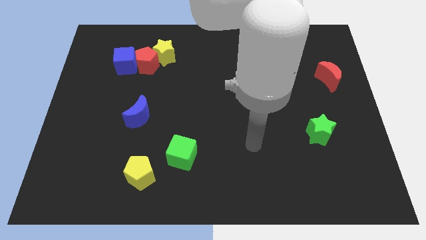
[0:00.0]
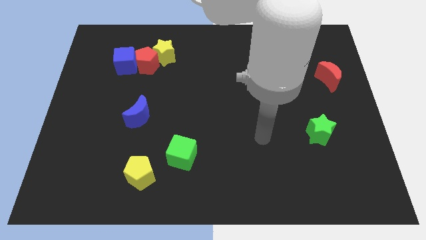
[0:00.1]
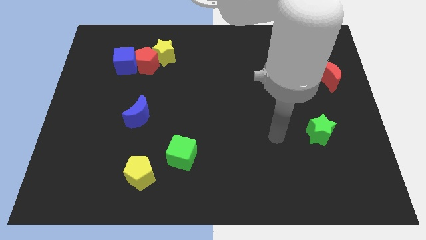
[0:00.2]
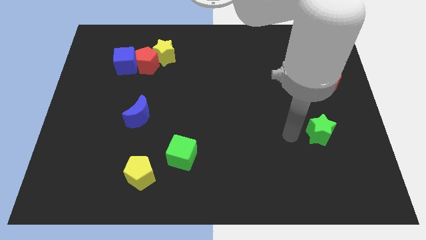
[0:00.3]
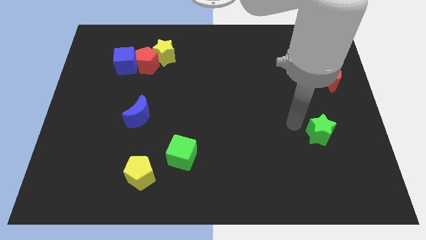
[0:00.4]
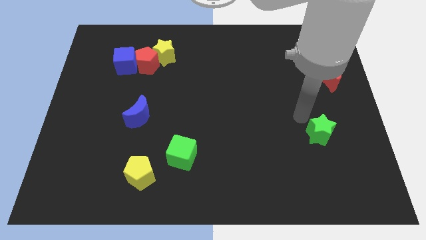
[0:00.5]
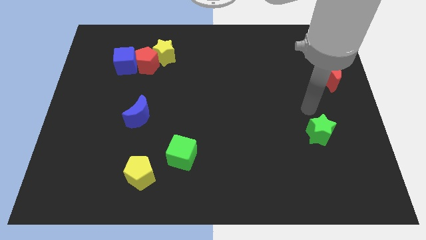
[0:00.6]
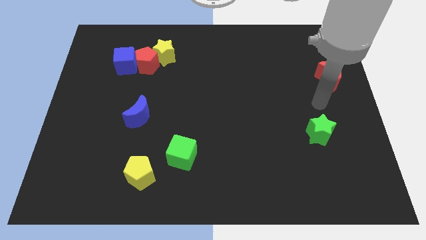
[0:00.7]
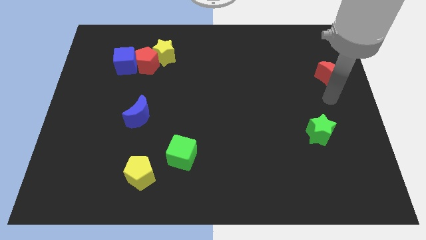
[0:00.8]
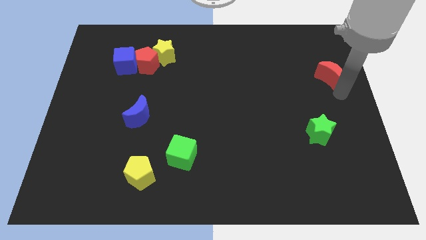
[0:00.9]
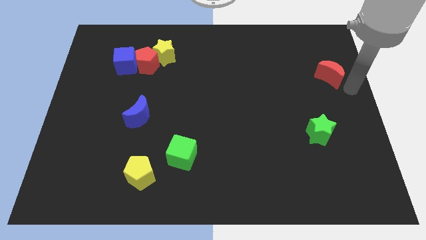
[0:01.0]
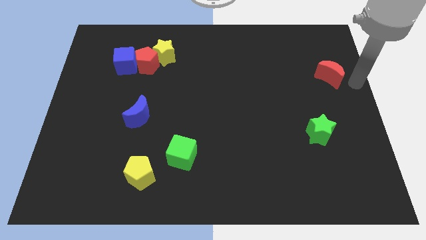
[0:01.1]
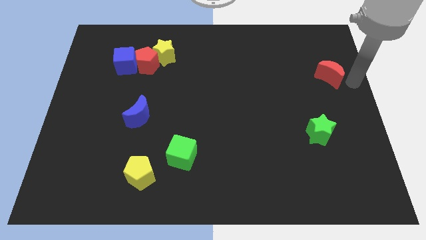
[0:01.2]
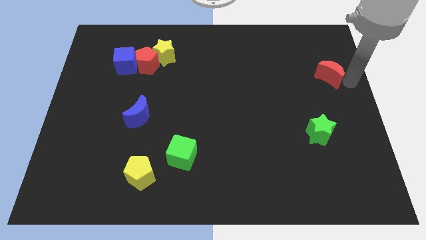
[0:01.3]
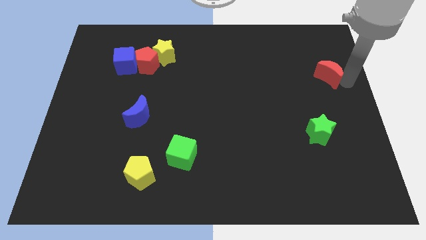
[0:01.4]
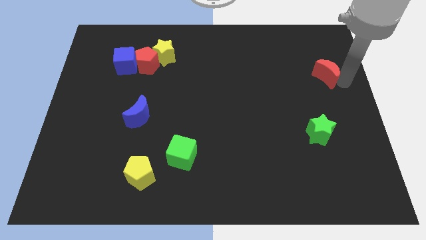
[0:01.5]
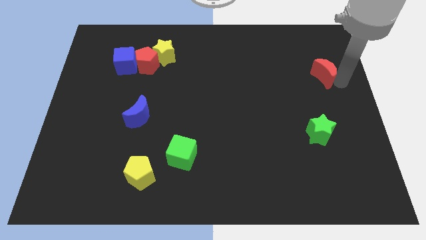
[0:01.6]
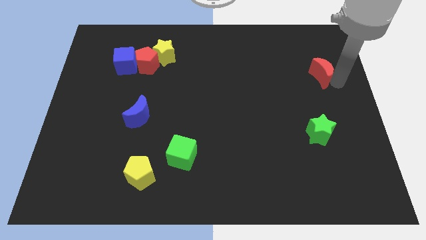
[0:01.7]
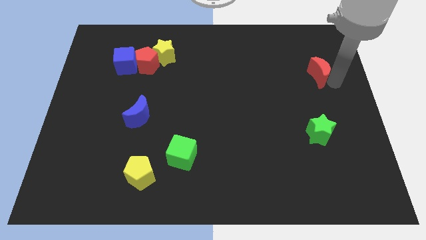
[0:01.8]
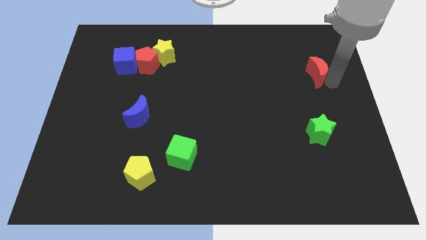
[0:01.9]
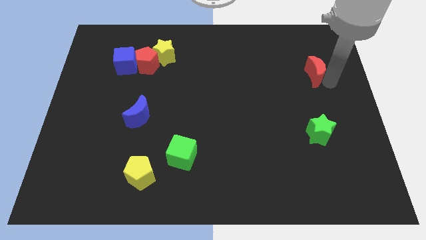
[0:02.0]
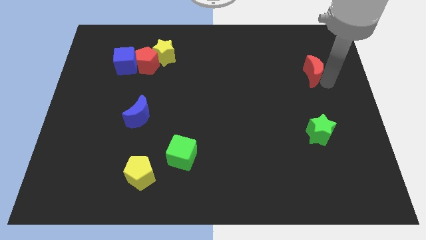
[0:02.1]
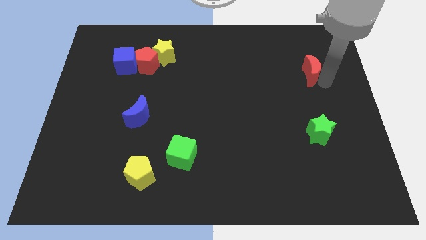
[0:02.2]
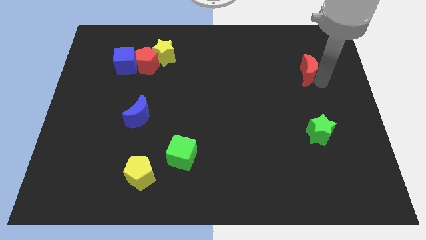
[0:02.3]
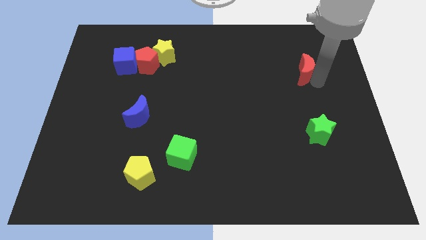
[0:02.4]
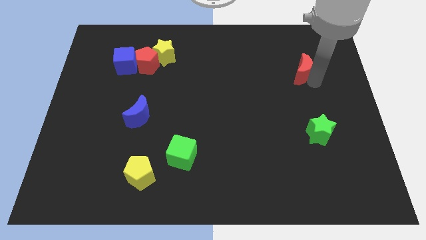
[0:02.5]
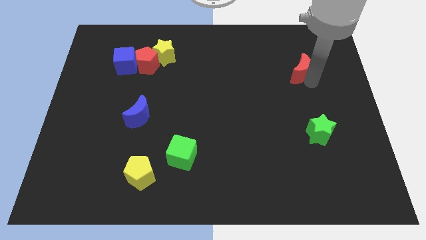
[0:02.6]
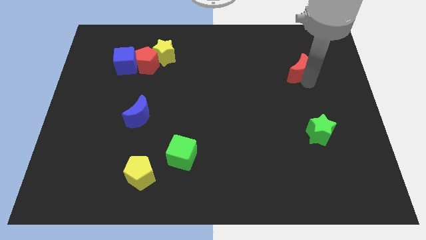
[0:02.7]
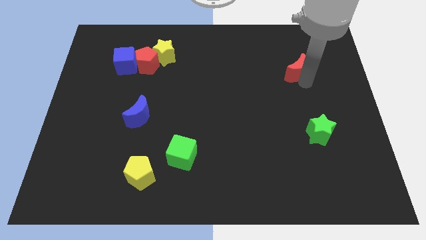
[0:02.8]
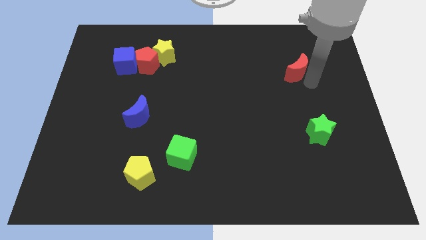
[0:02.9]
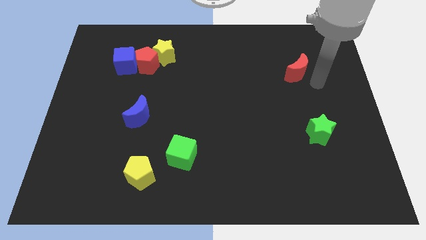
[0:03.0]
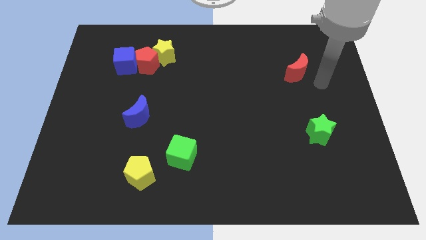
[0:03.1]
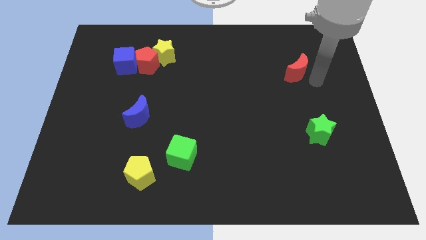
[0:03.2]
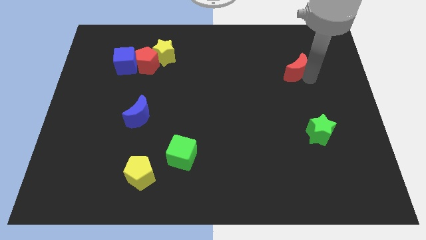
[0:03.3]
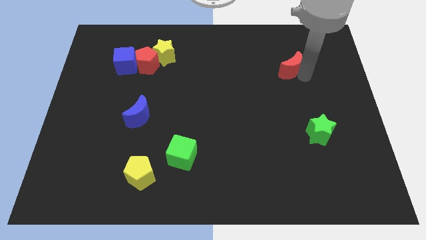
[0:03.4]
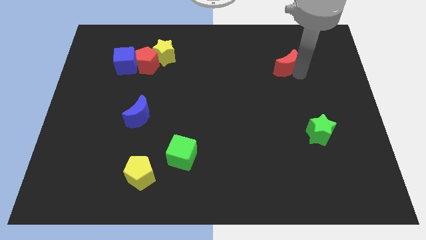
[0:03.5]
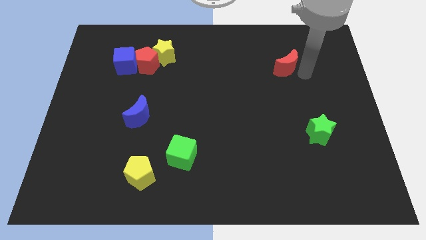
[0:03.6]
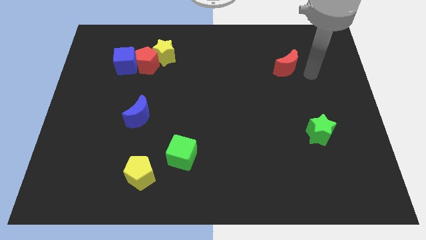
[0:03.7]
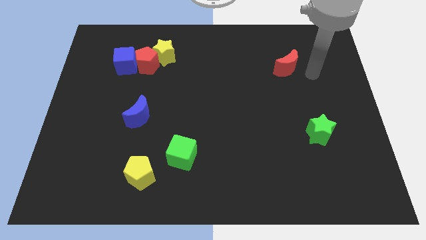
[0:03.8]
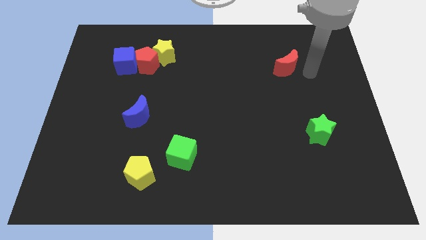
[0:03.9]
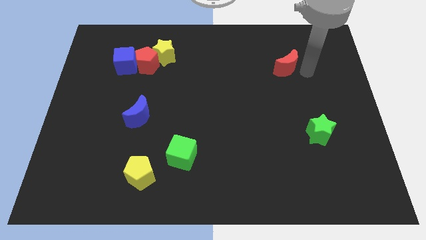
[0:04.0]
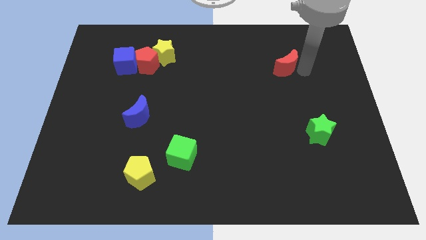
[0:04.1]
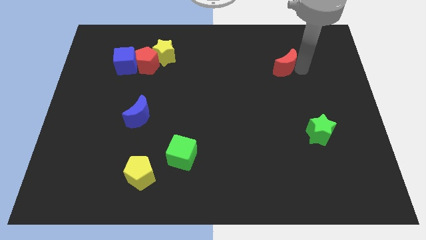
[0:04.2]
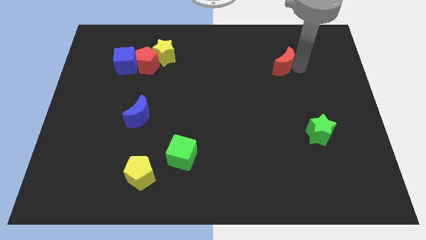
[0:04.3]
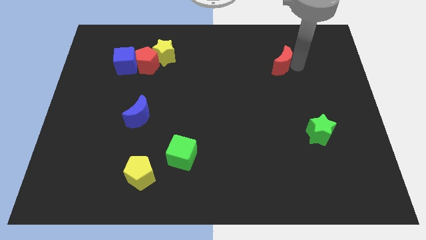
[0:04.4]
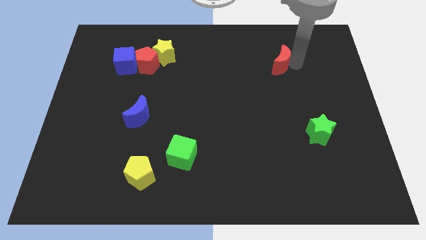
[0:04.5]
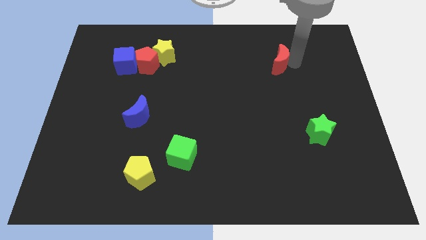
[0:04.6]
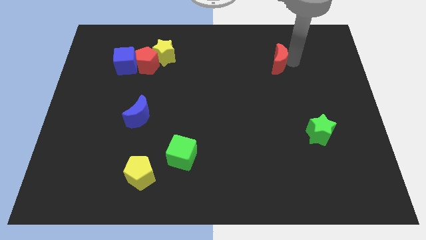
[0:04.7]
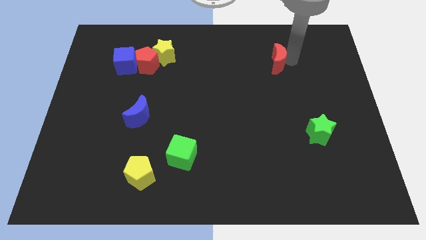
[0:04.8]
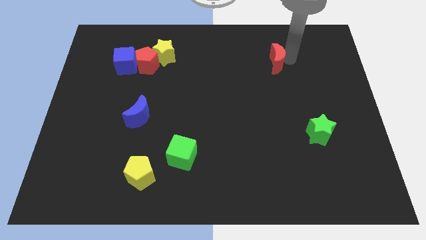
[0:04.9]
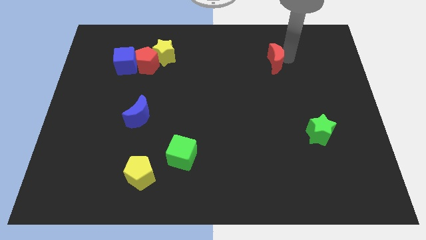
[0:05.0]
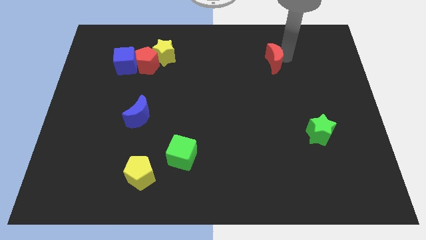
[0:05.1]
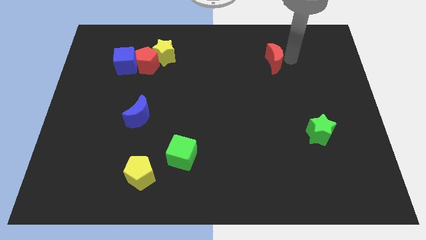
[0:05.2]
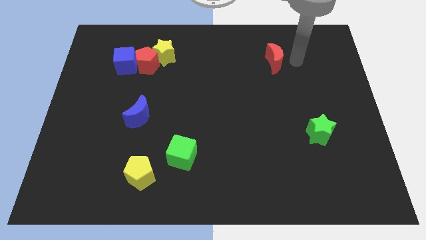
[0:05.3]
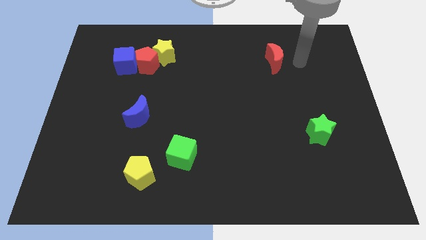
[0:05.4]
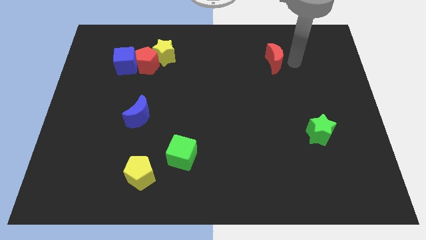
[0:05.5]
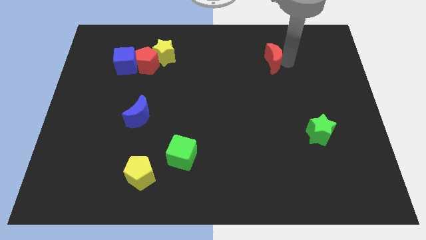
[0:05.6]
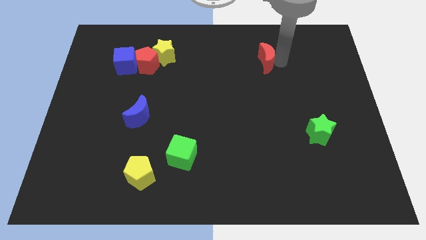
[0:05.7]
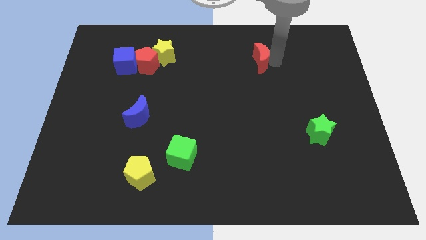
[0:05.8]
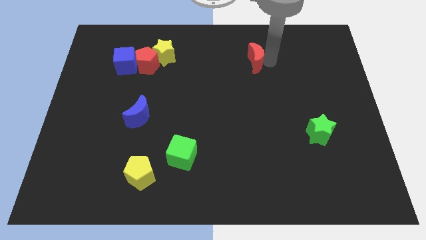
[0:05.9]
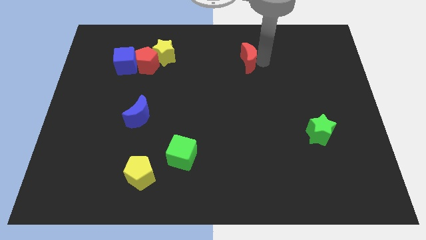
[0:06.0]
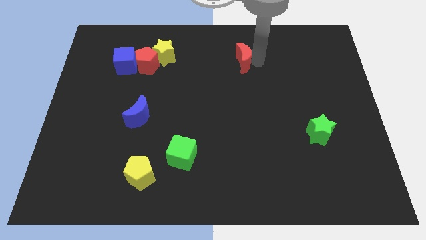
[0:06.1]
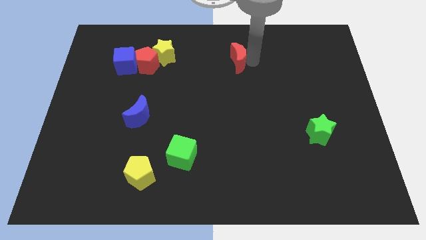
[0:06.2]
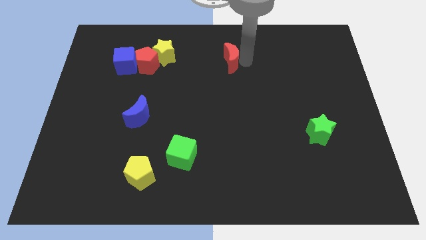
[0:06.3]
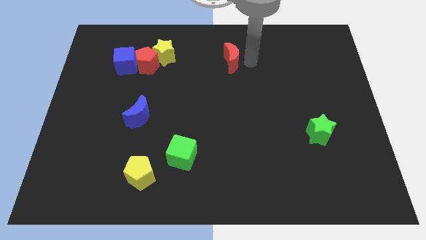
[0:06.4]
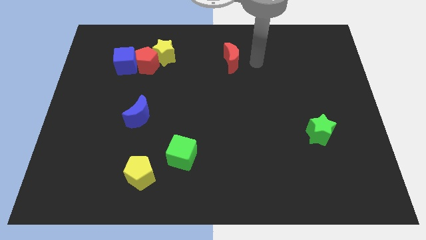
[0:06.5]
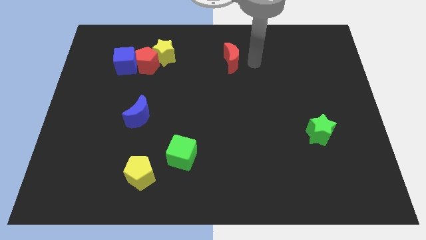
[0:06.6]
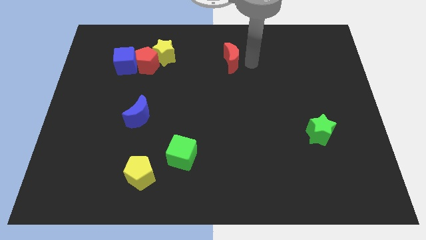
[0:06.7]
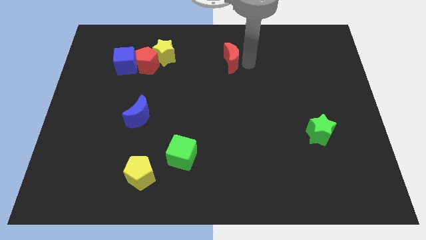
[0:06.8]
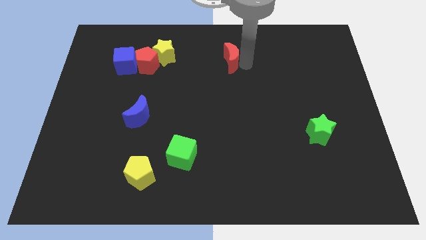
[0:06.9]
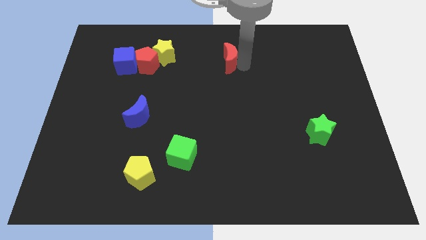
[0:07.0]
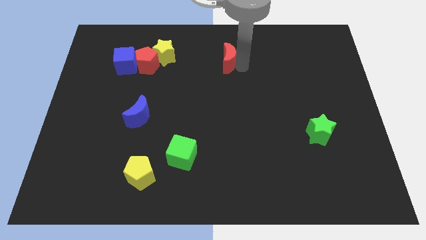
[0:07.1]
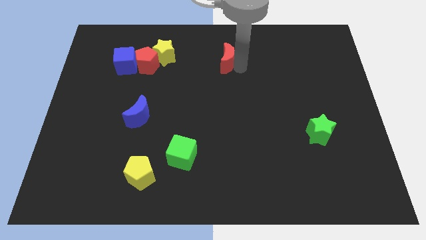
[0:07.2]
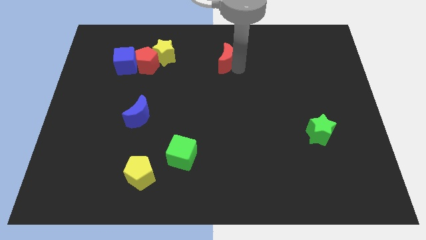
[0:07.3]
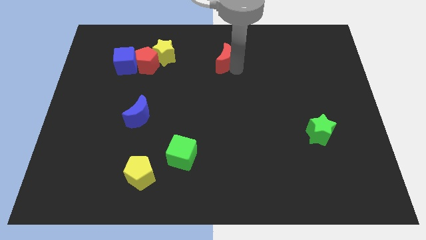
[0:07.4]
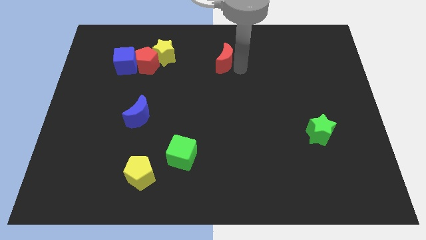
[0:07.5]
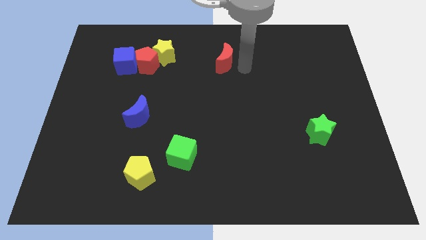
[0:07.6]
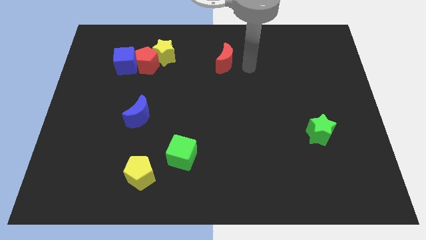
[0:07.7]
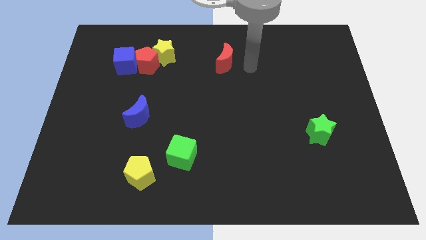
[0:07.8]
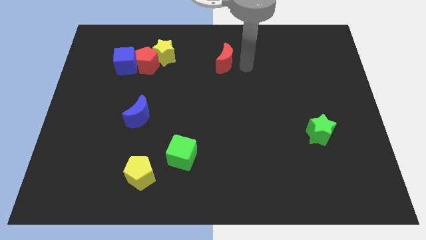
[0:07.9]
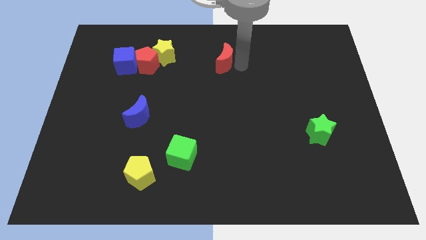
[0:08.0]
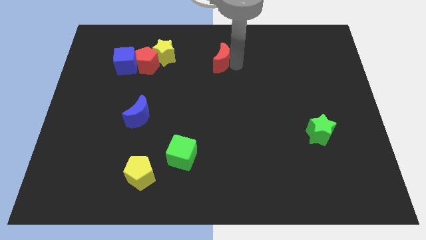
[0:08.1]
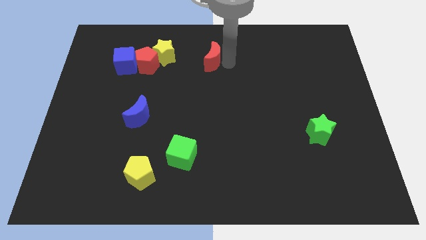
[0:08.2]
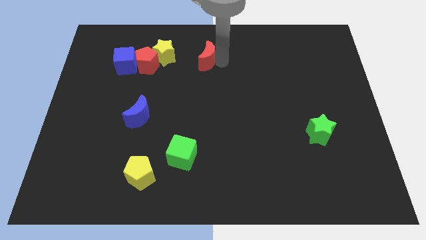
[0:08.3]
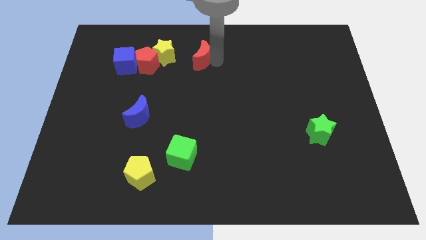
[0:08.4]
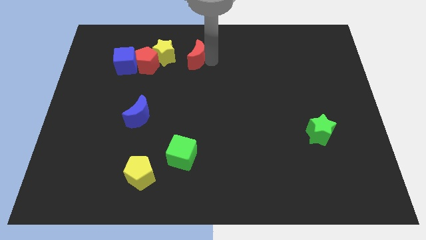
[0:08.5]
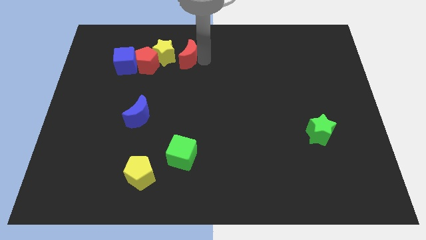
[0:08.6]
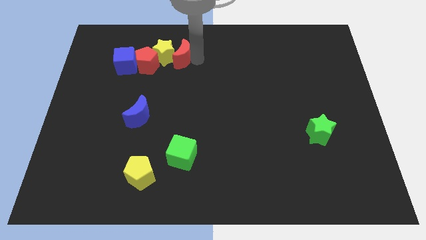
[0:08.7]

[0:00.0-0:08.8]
slide the red moon next to the yellow star
